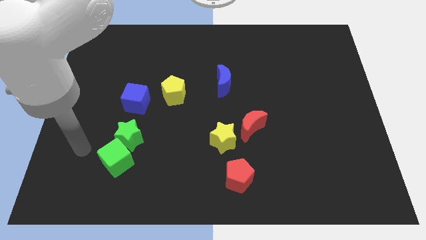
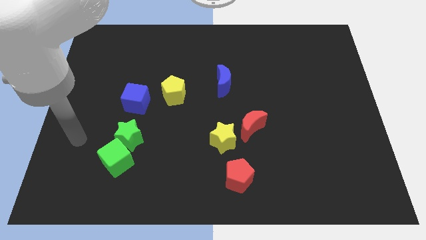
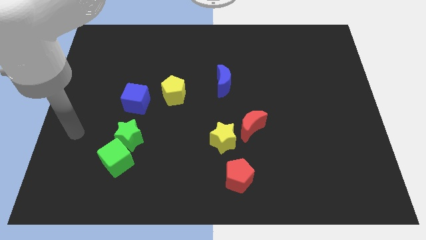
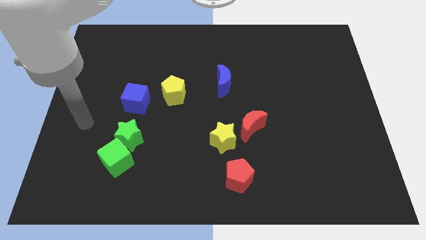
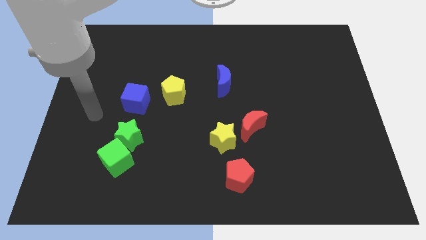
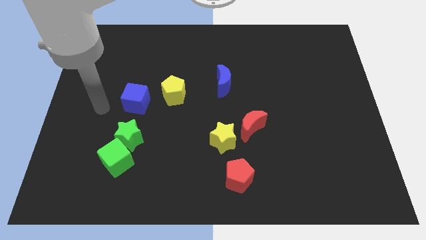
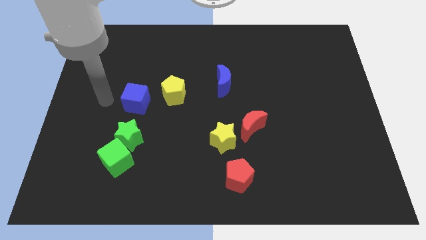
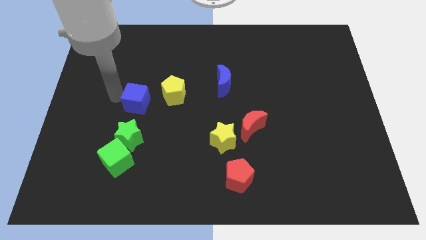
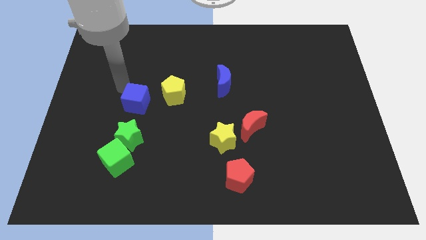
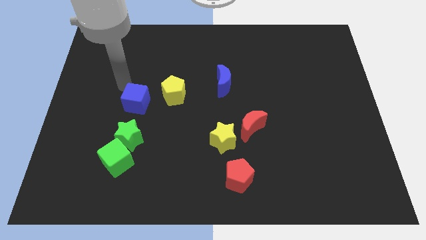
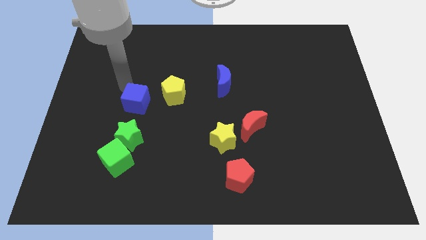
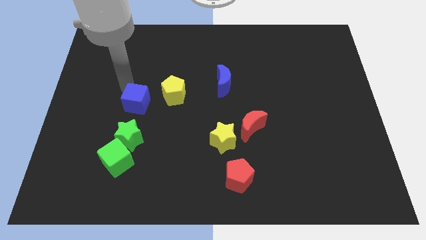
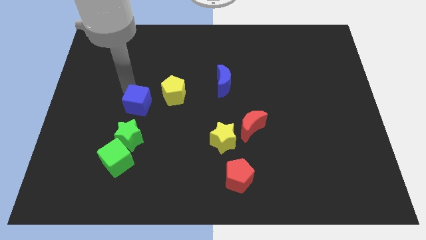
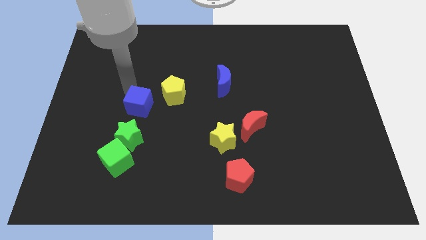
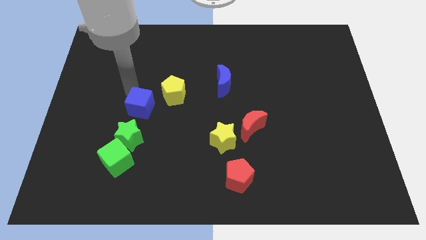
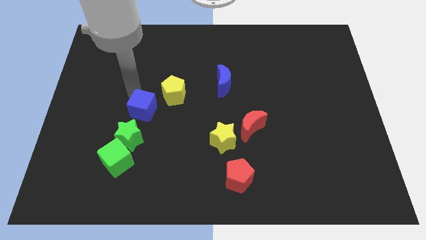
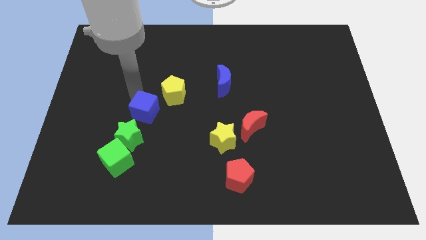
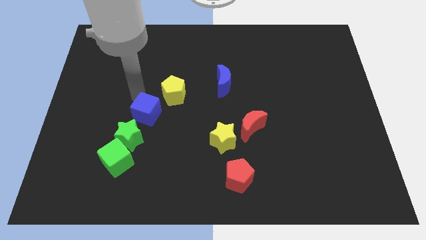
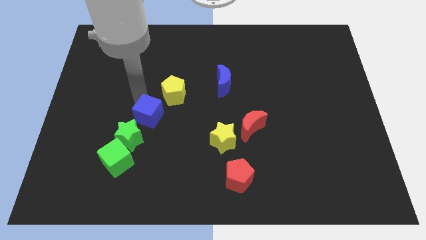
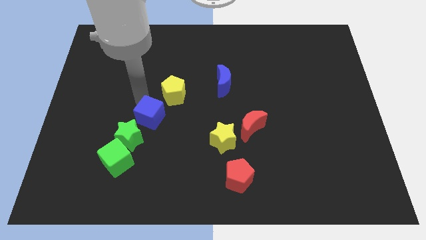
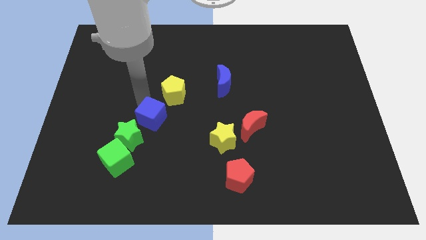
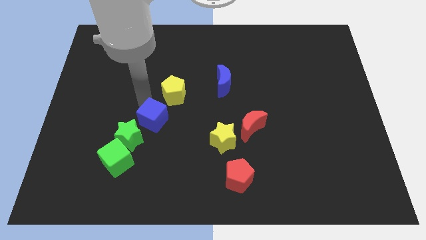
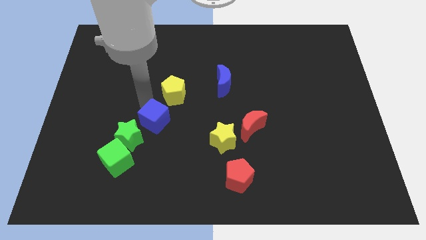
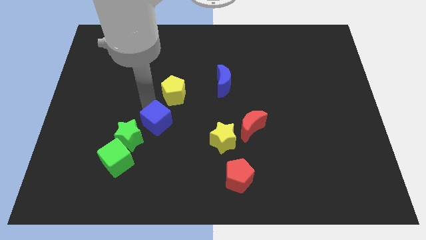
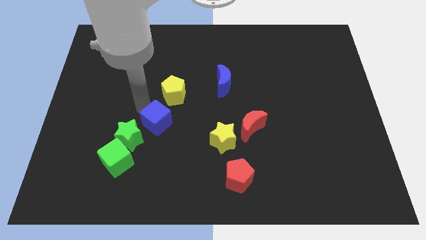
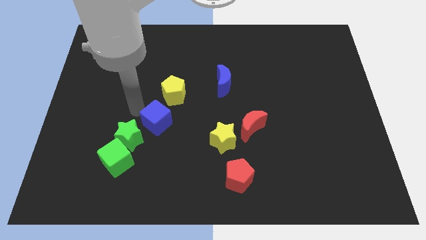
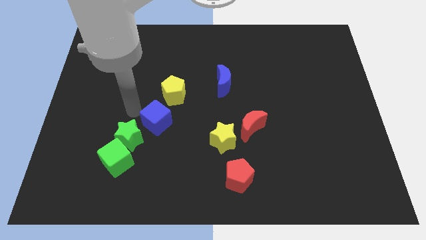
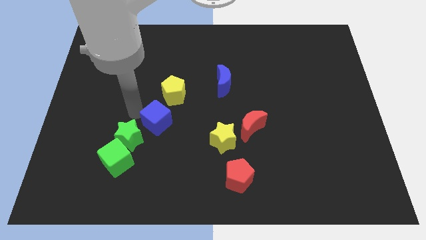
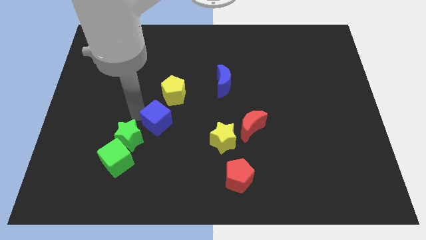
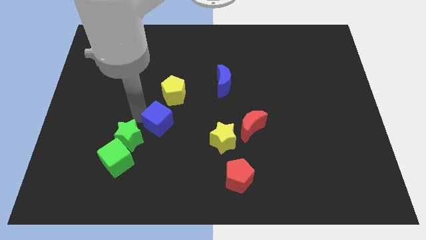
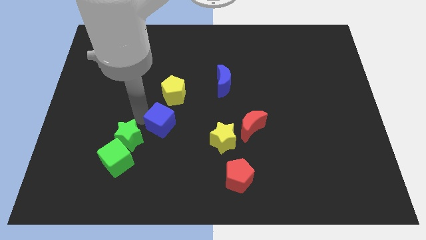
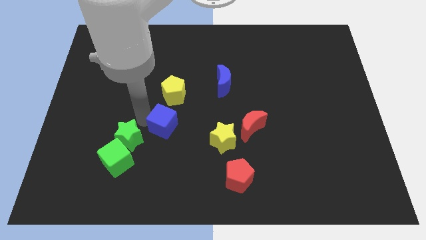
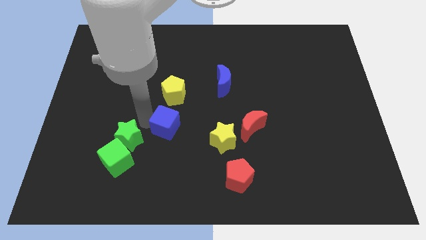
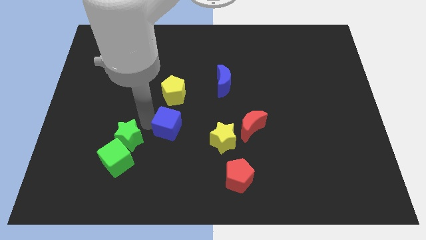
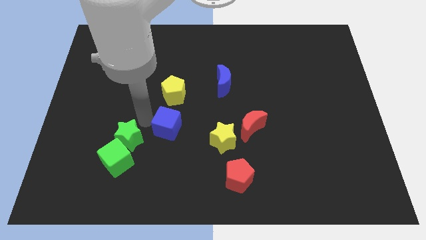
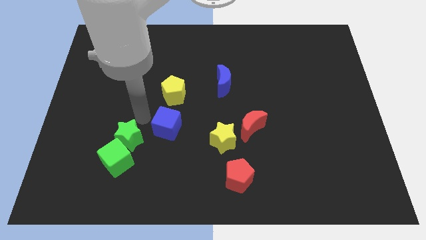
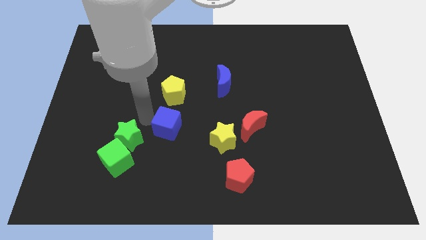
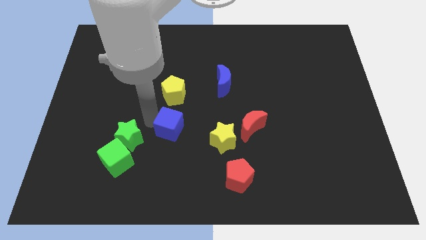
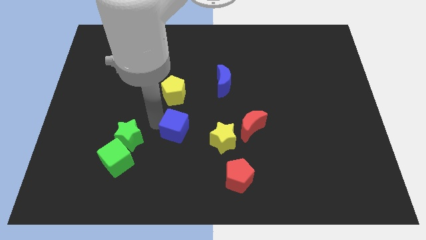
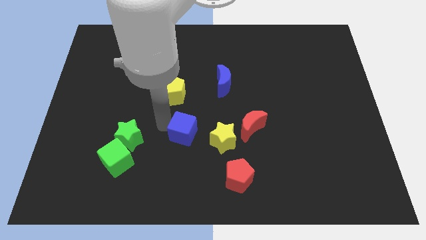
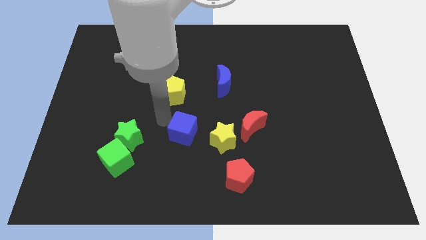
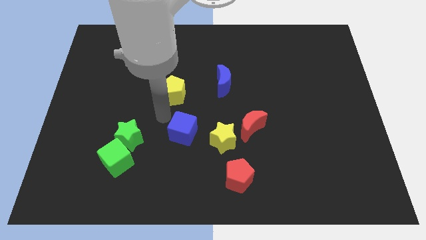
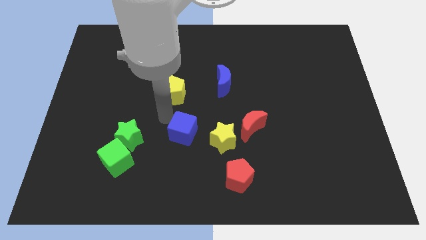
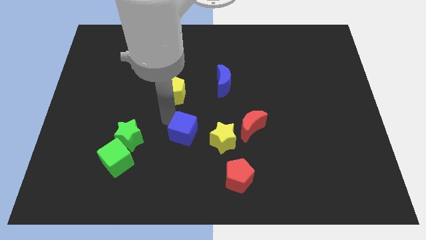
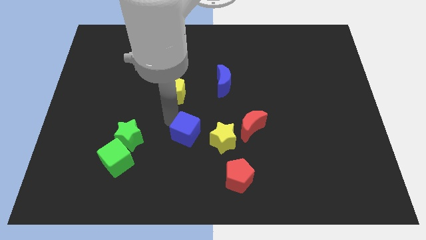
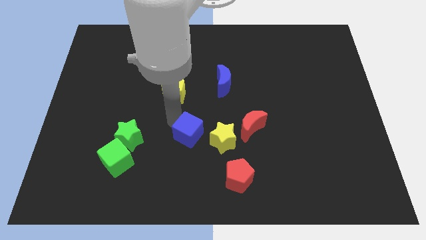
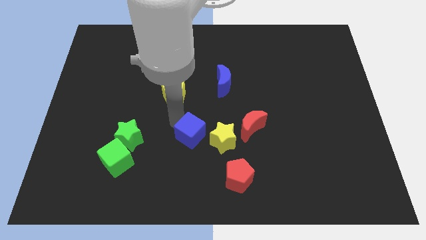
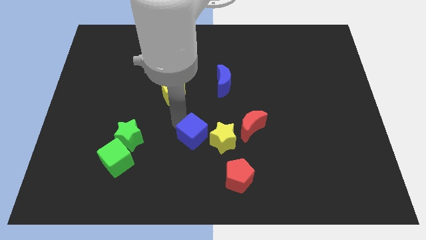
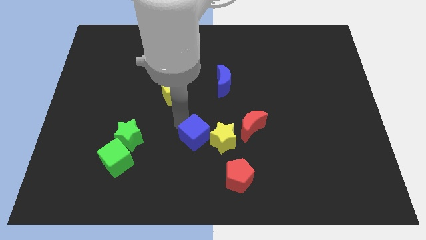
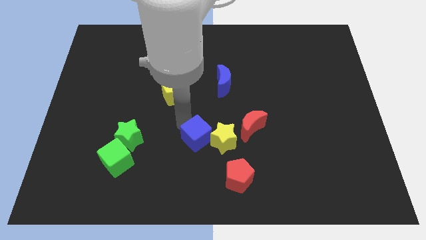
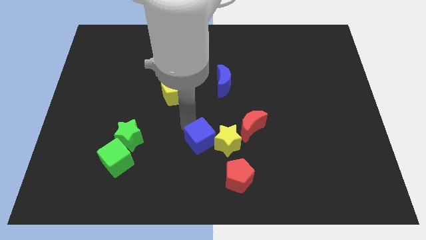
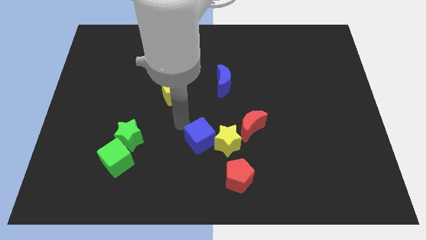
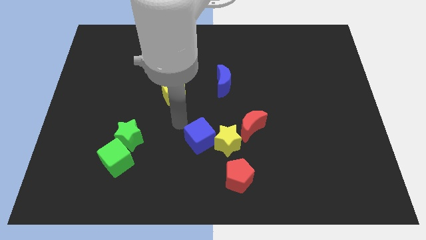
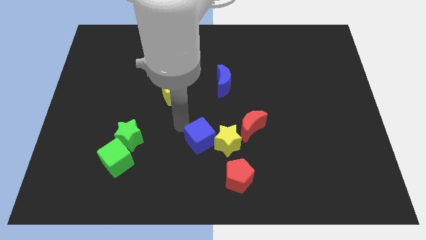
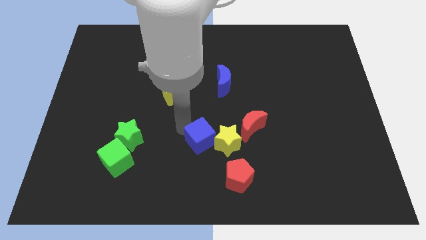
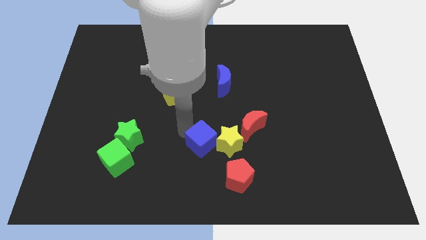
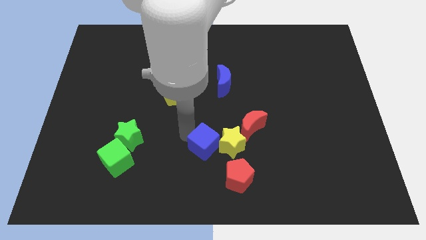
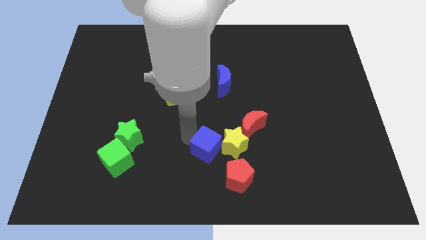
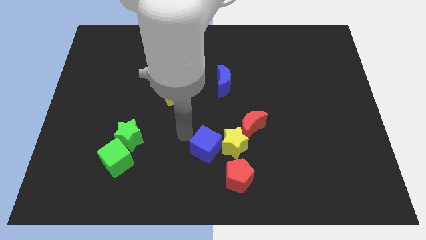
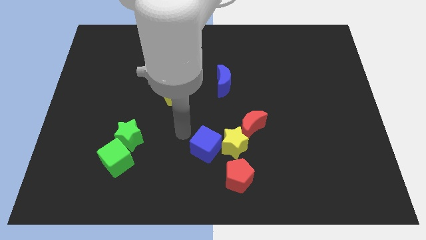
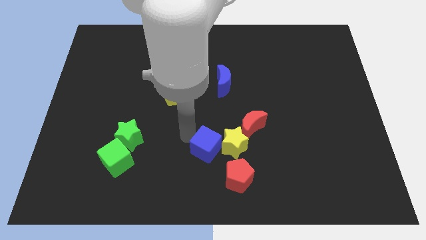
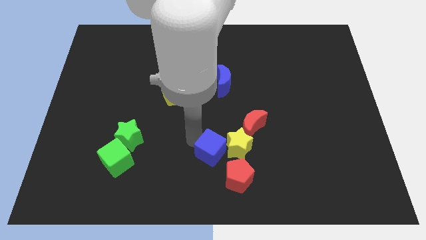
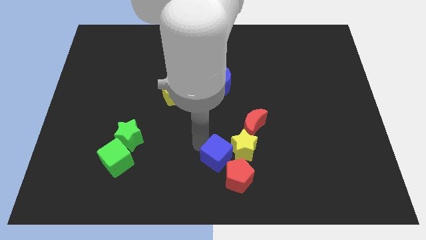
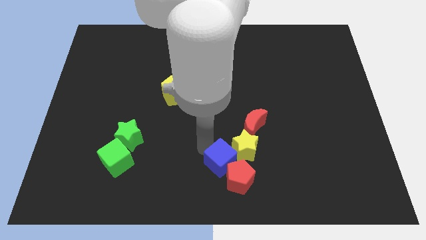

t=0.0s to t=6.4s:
slide the blue cube towards the red pentagon

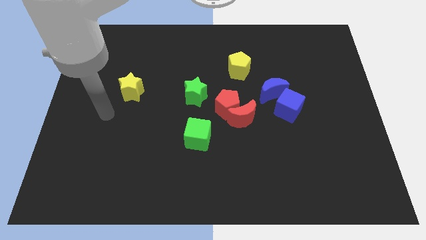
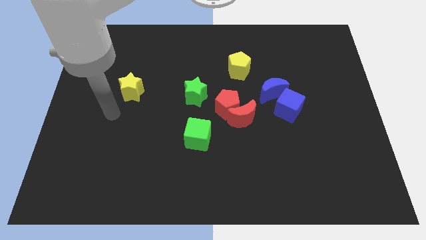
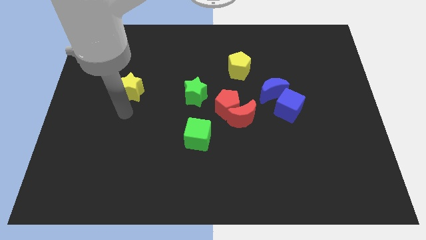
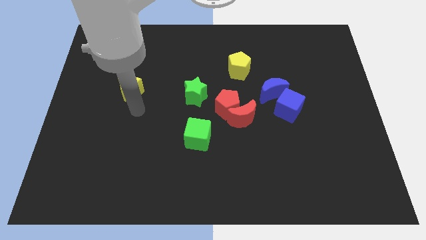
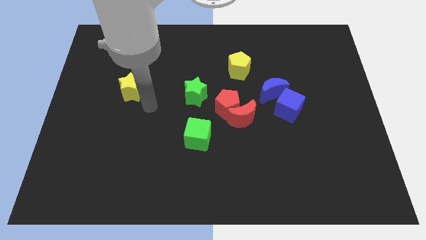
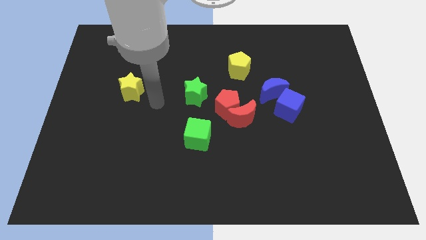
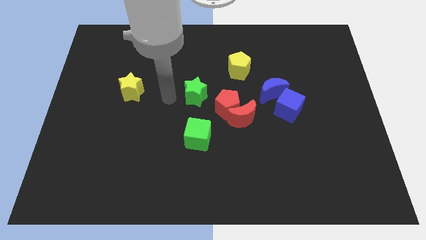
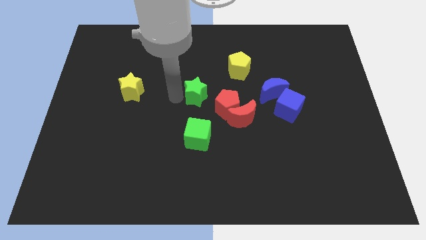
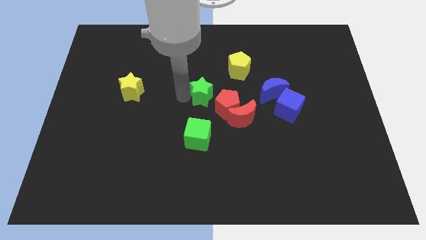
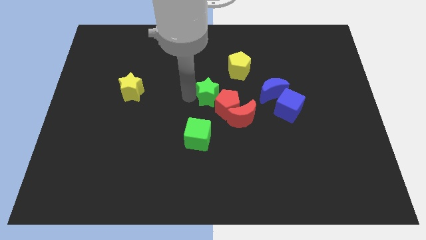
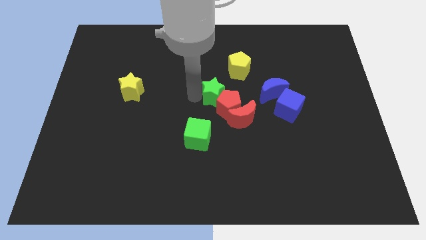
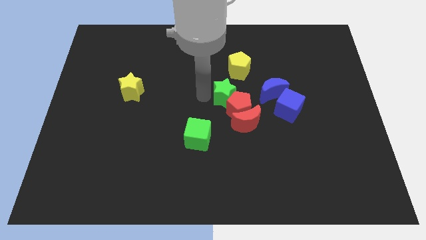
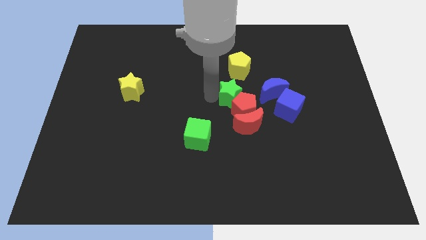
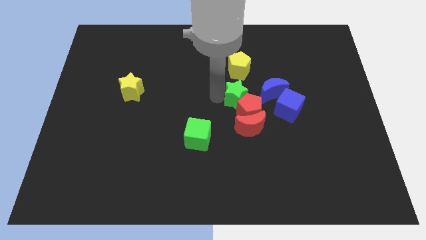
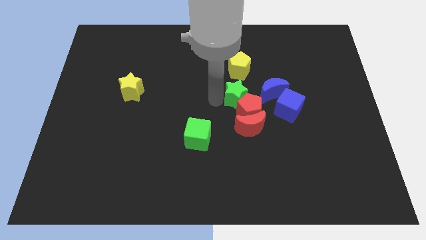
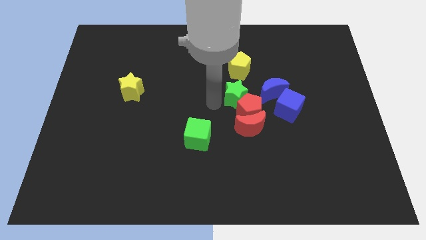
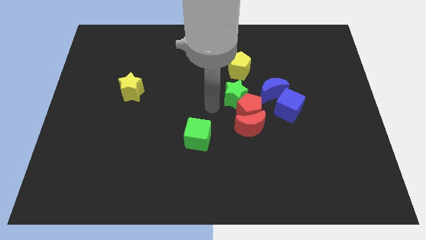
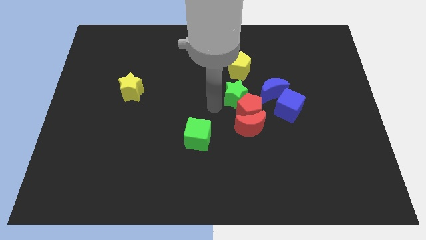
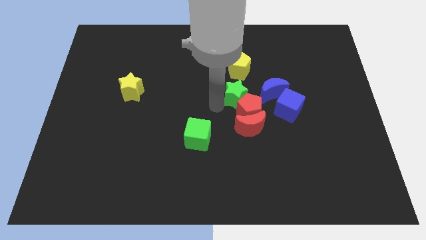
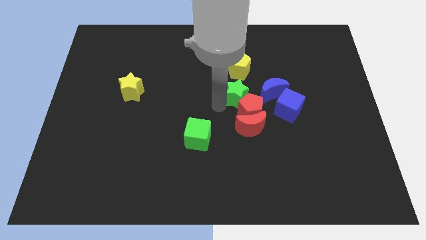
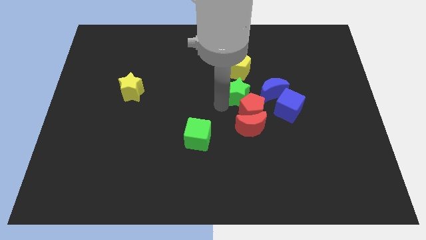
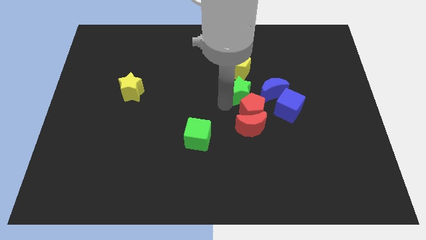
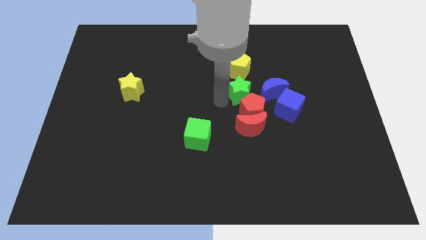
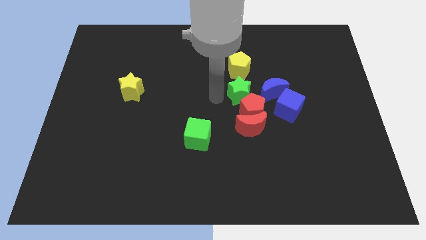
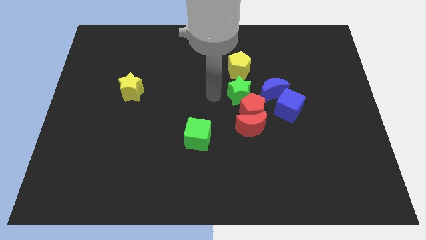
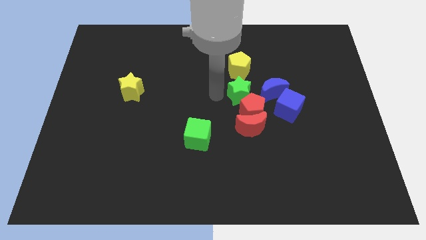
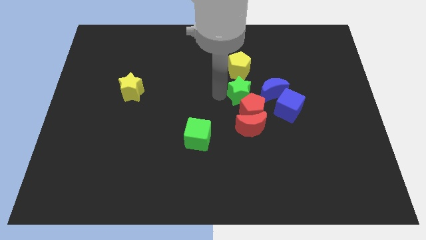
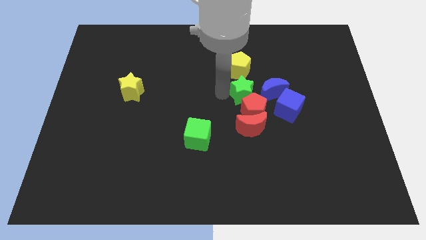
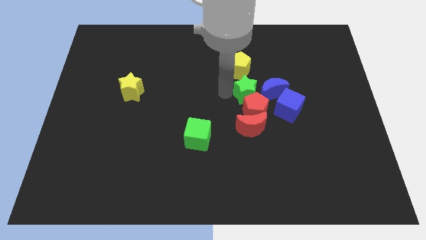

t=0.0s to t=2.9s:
slide the green star next to the blue moon
